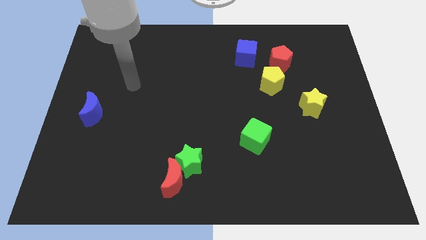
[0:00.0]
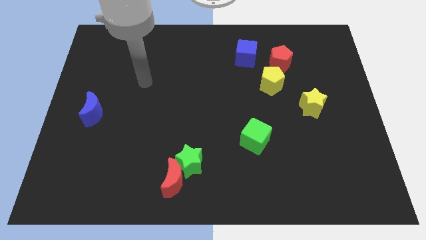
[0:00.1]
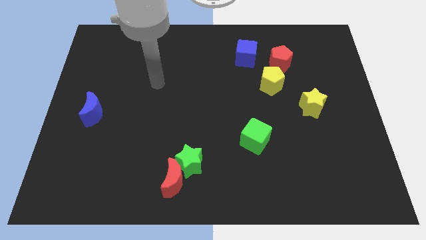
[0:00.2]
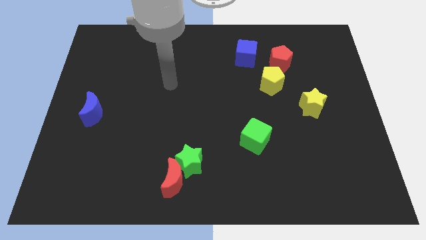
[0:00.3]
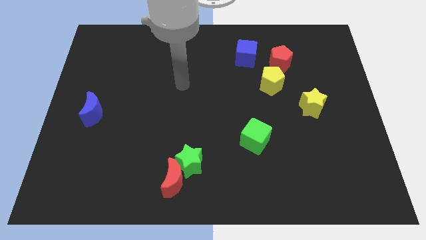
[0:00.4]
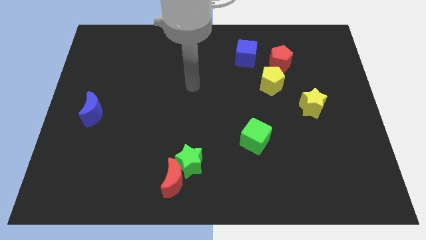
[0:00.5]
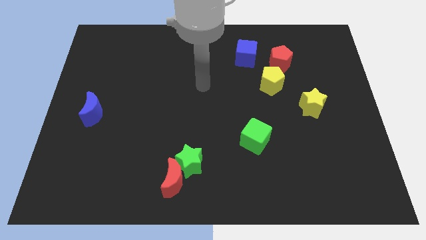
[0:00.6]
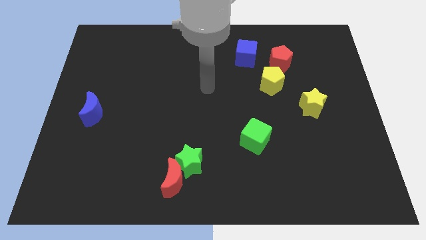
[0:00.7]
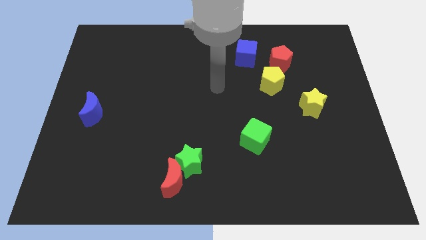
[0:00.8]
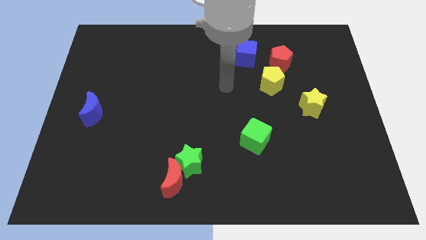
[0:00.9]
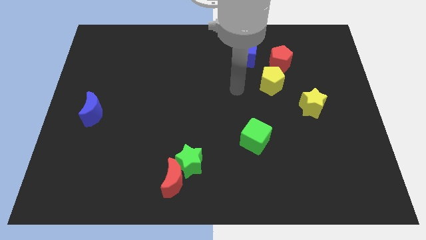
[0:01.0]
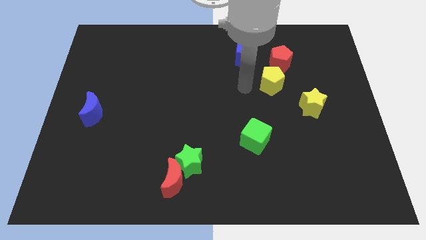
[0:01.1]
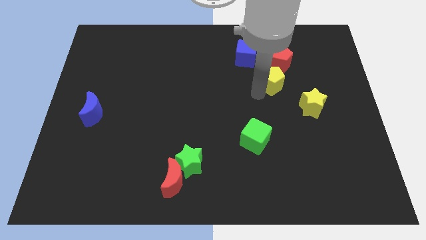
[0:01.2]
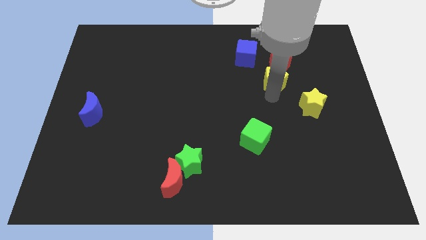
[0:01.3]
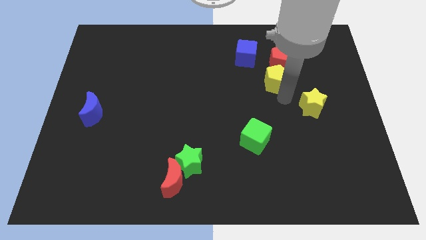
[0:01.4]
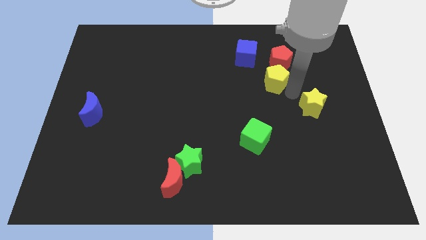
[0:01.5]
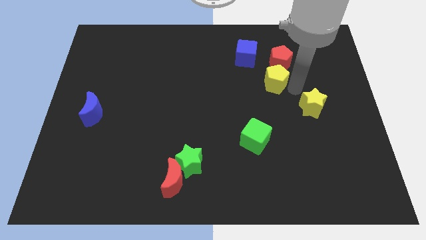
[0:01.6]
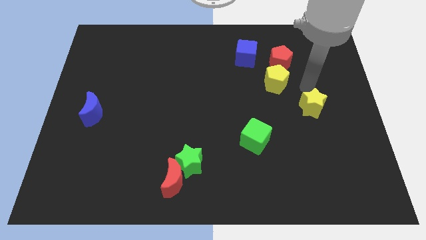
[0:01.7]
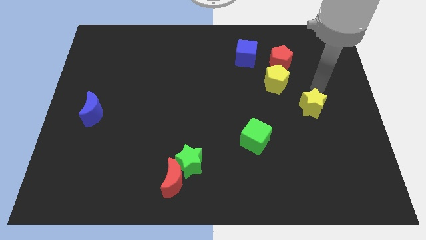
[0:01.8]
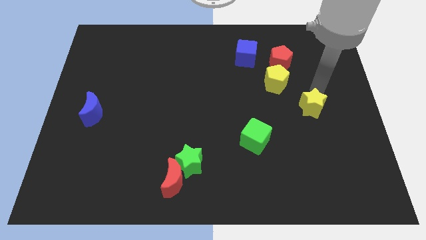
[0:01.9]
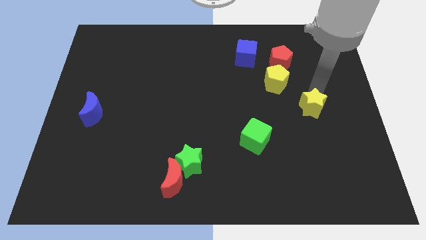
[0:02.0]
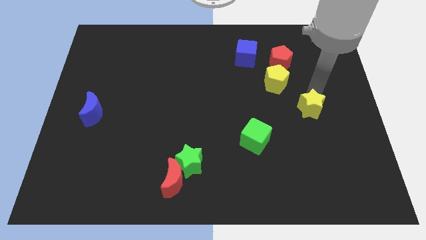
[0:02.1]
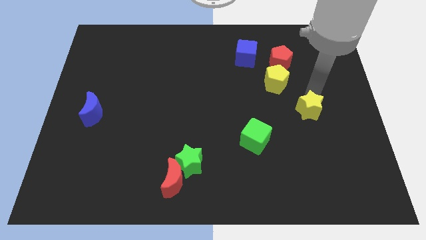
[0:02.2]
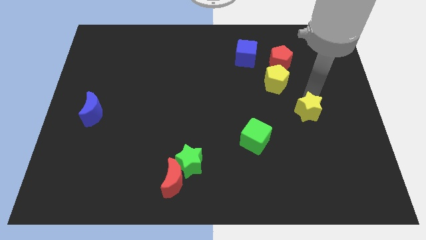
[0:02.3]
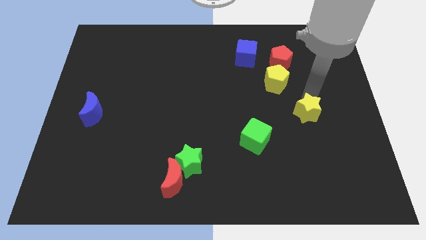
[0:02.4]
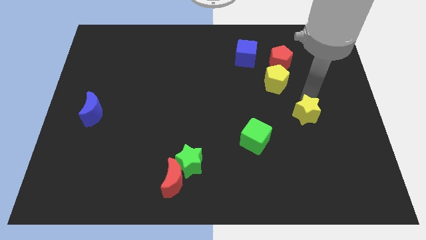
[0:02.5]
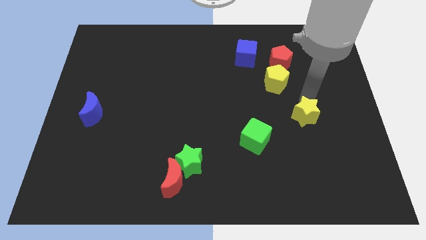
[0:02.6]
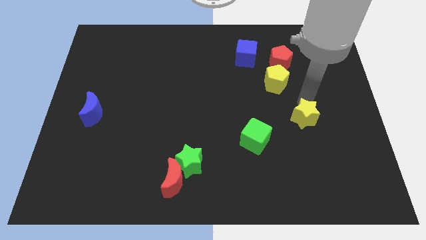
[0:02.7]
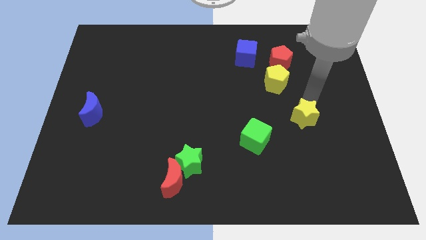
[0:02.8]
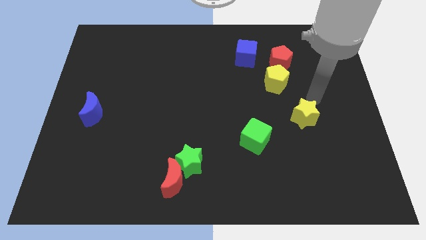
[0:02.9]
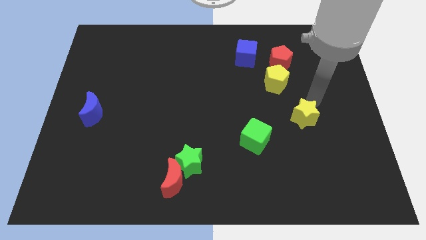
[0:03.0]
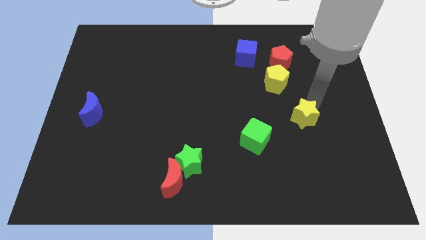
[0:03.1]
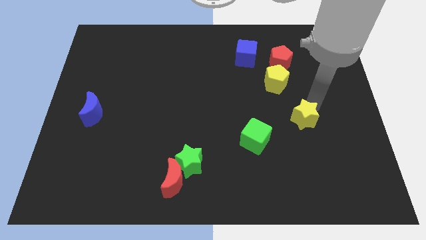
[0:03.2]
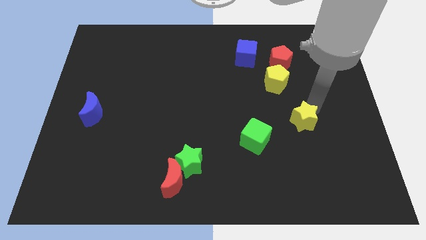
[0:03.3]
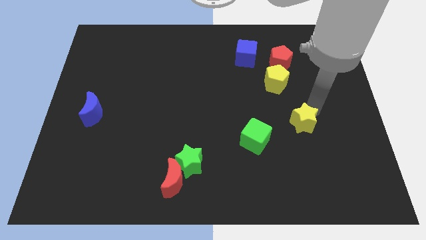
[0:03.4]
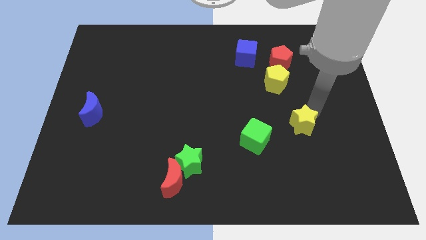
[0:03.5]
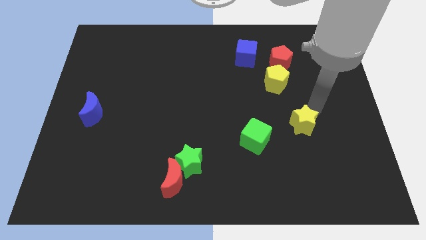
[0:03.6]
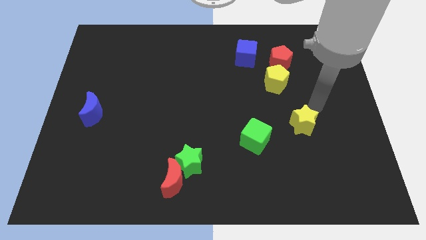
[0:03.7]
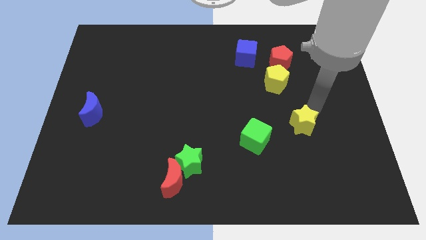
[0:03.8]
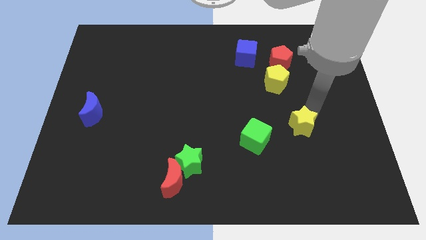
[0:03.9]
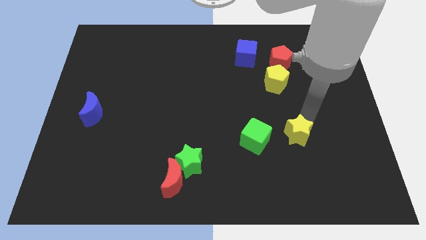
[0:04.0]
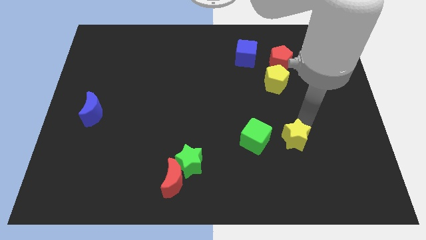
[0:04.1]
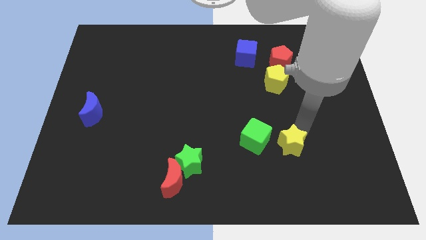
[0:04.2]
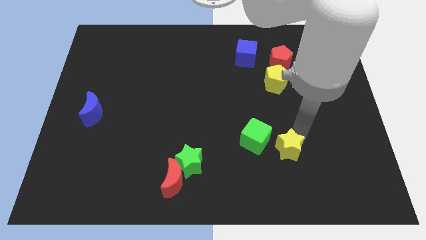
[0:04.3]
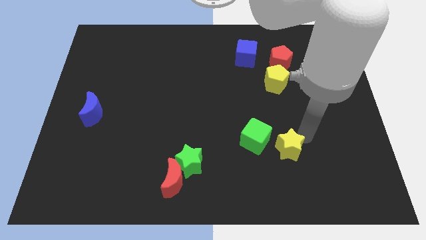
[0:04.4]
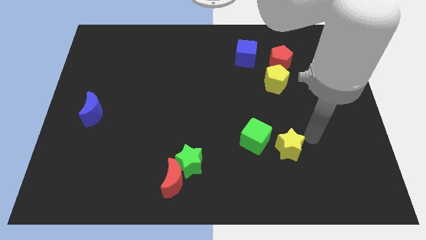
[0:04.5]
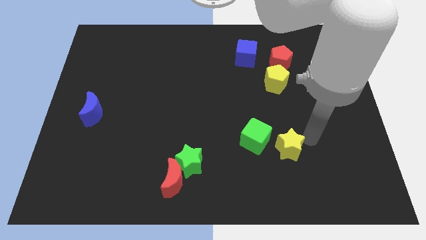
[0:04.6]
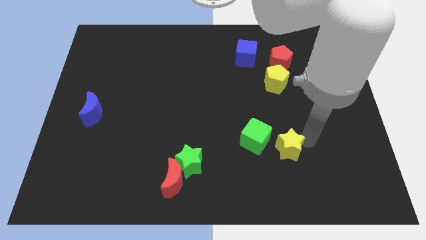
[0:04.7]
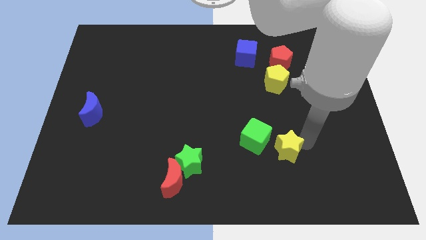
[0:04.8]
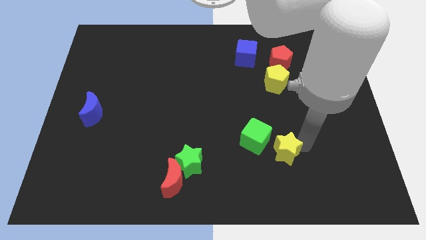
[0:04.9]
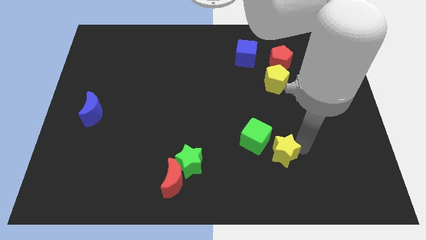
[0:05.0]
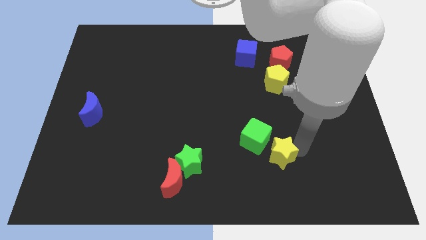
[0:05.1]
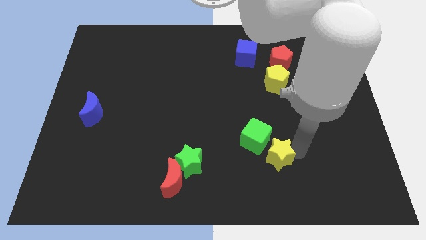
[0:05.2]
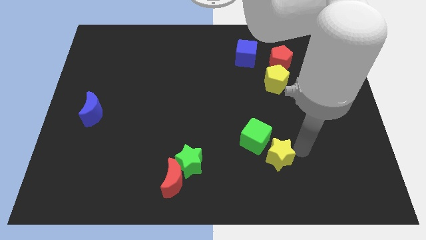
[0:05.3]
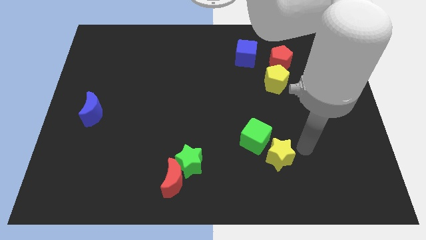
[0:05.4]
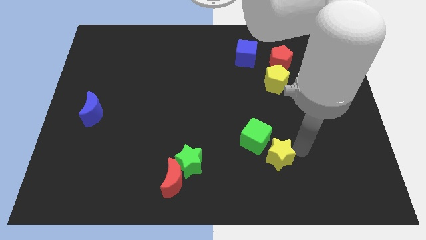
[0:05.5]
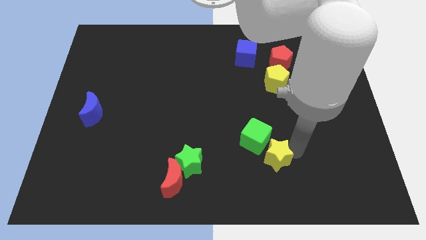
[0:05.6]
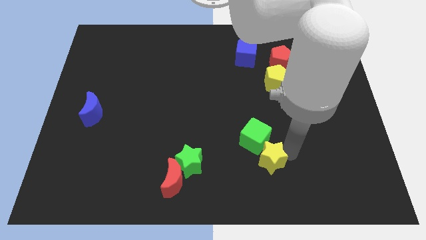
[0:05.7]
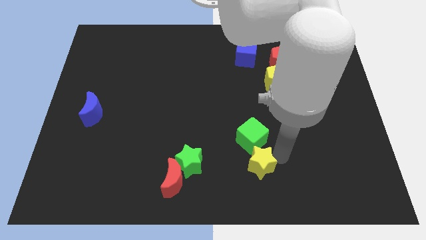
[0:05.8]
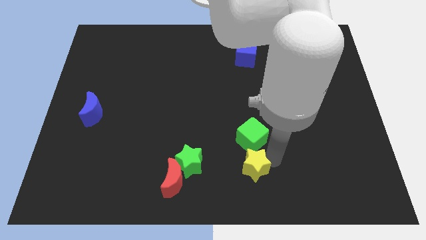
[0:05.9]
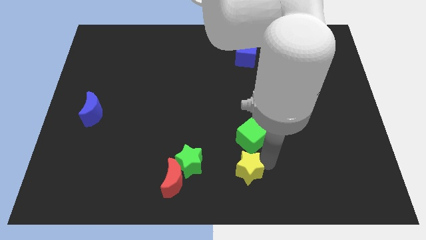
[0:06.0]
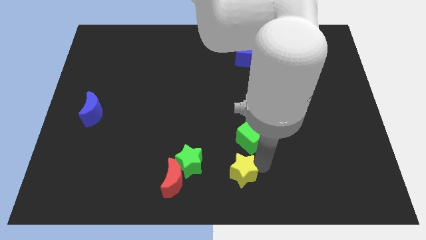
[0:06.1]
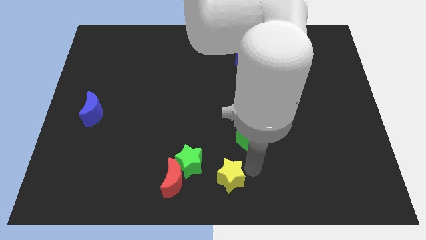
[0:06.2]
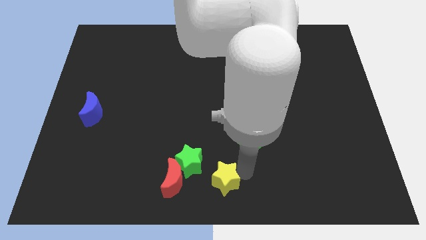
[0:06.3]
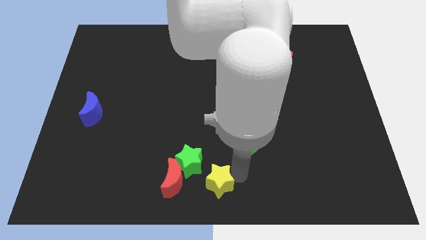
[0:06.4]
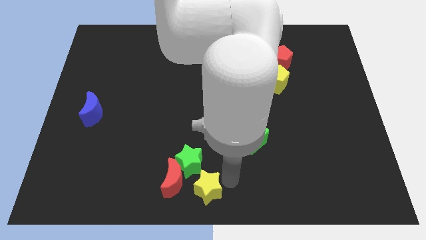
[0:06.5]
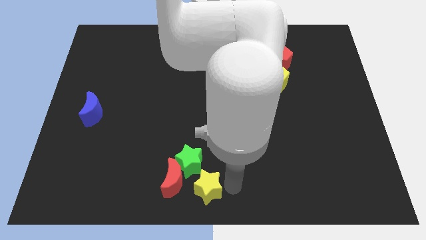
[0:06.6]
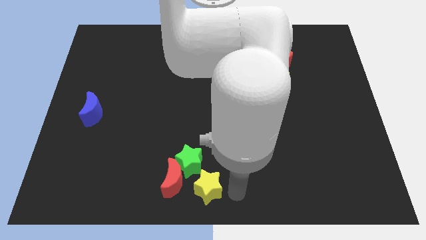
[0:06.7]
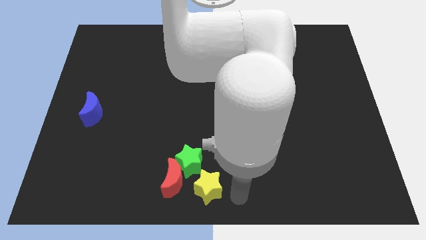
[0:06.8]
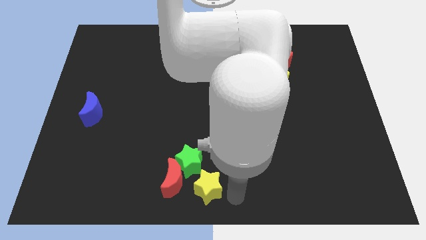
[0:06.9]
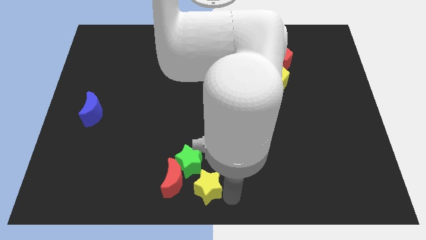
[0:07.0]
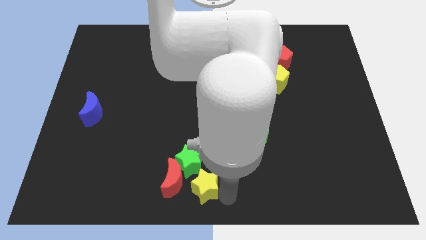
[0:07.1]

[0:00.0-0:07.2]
push the yellow star to the red moon

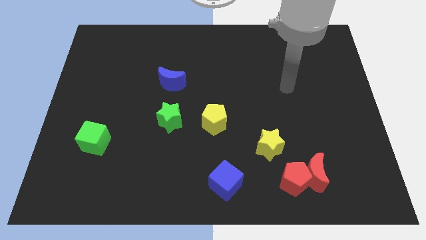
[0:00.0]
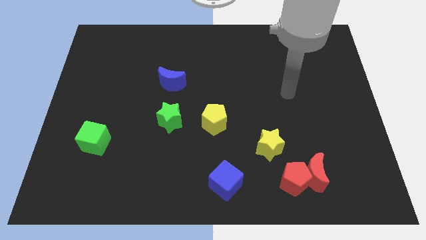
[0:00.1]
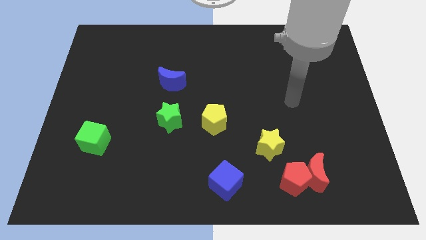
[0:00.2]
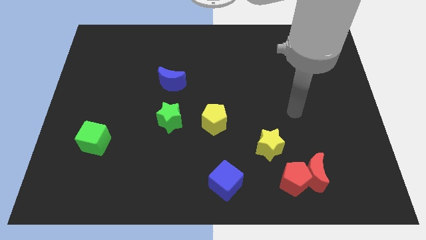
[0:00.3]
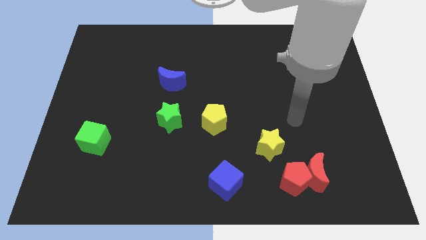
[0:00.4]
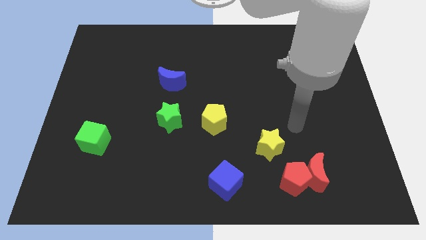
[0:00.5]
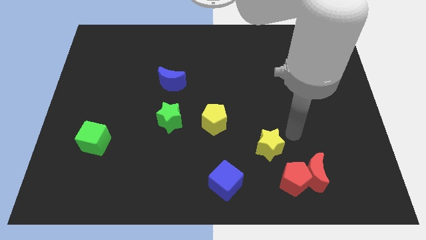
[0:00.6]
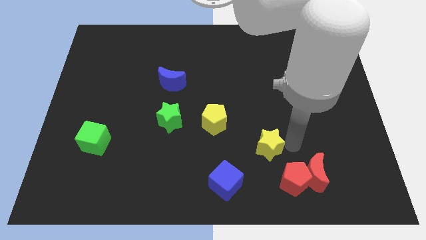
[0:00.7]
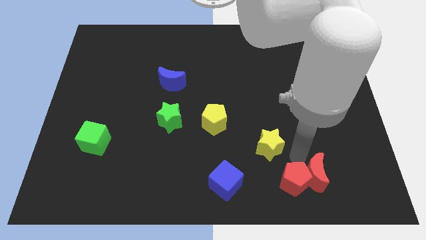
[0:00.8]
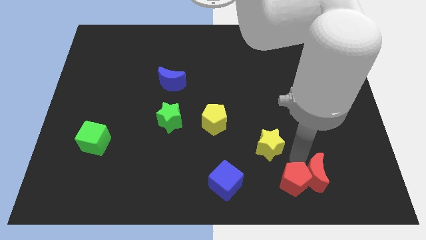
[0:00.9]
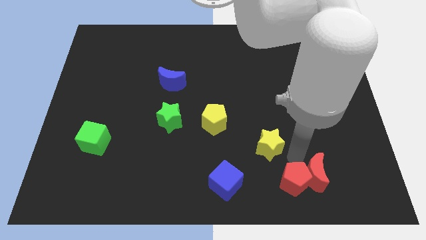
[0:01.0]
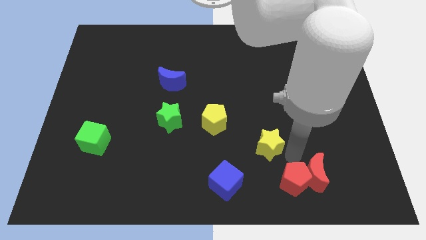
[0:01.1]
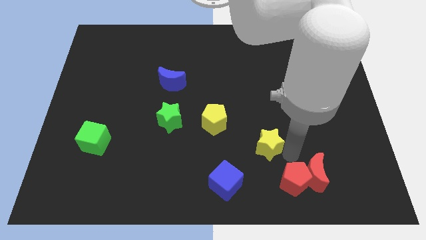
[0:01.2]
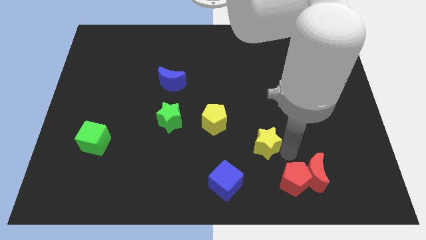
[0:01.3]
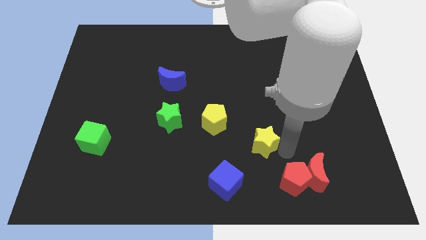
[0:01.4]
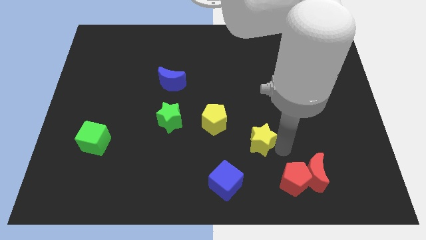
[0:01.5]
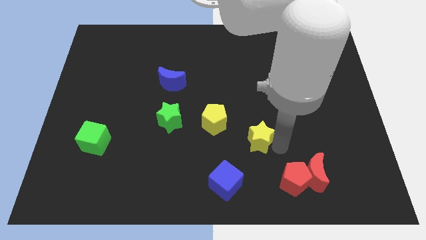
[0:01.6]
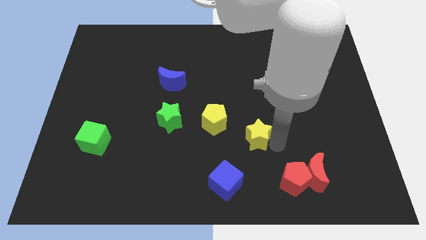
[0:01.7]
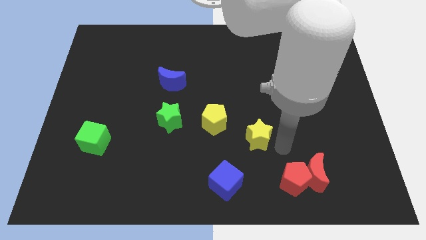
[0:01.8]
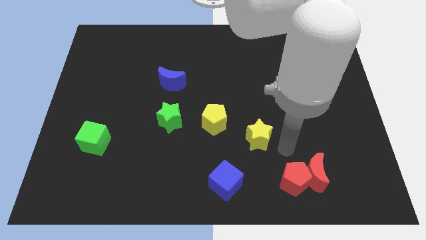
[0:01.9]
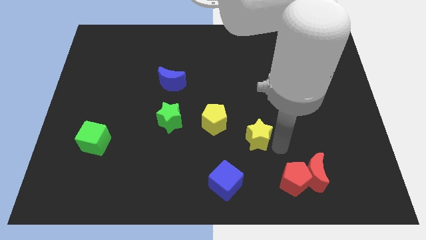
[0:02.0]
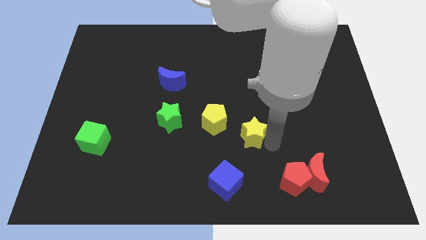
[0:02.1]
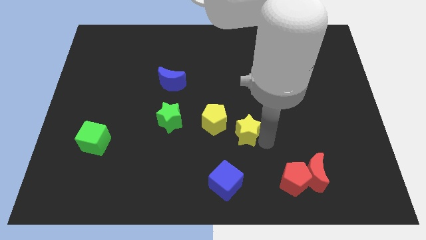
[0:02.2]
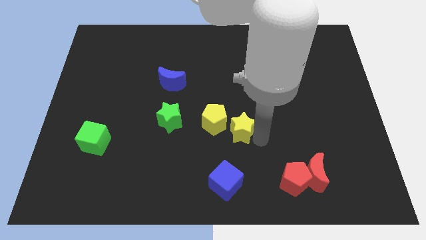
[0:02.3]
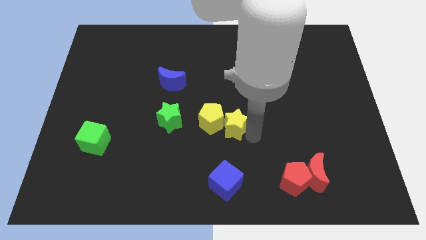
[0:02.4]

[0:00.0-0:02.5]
put the yellow star close to the yellow pentagon
